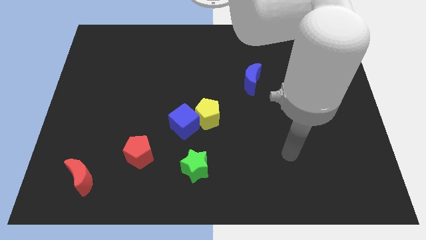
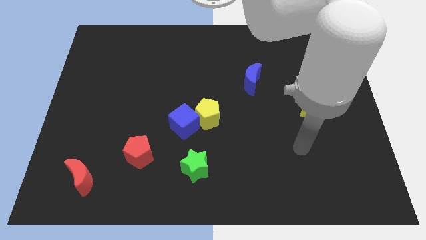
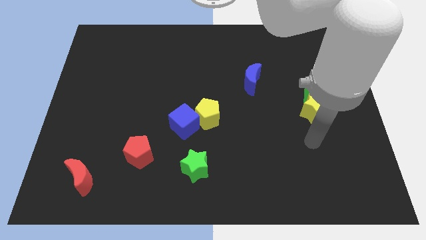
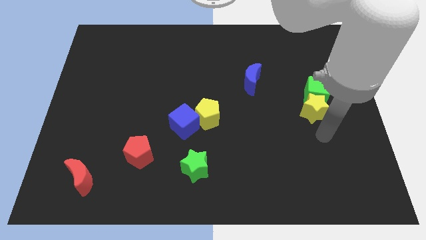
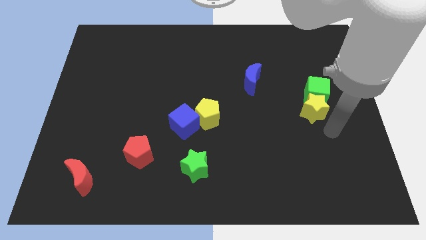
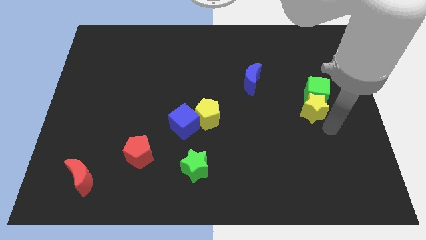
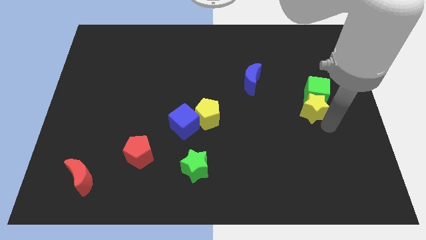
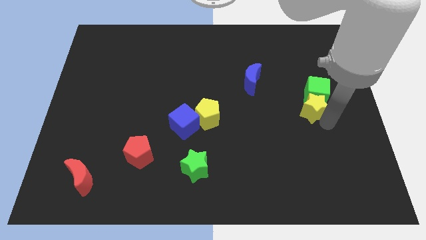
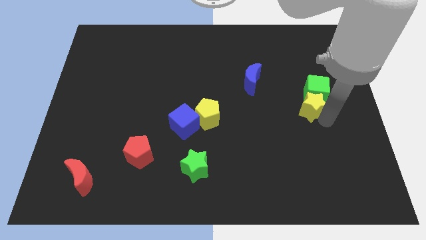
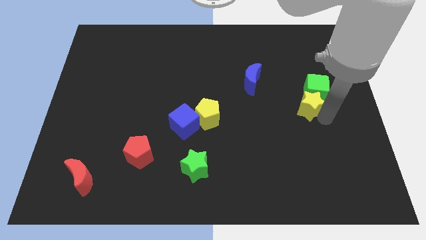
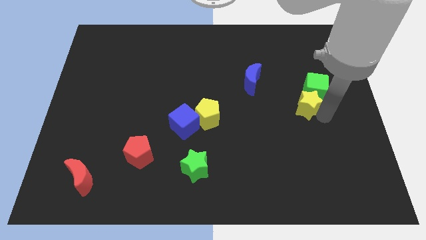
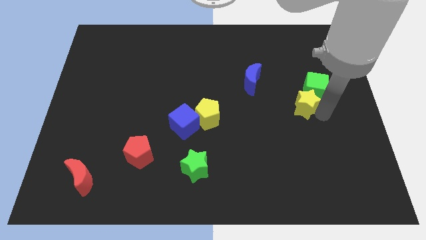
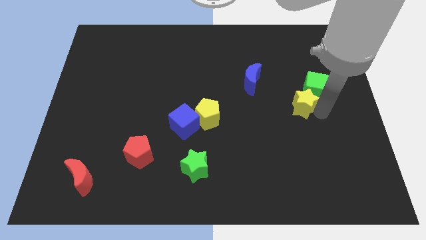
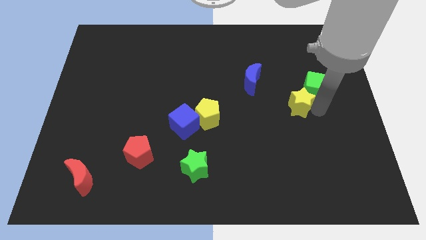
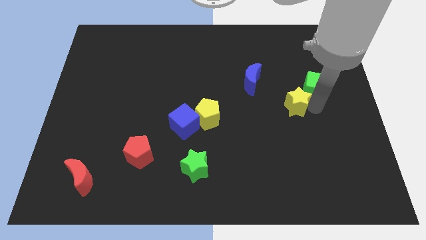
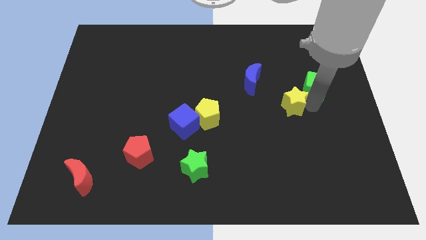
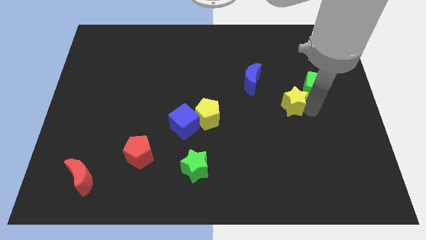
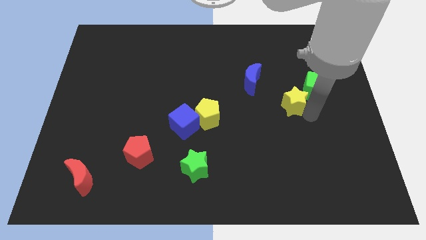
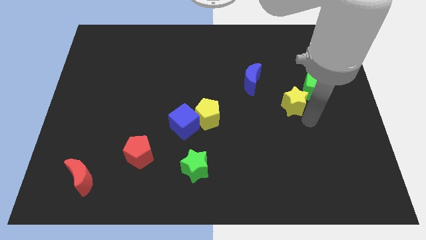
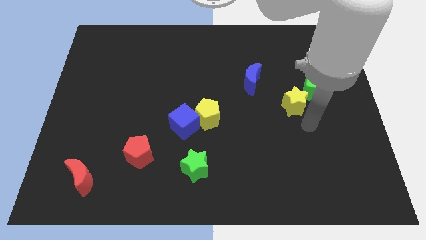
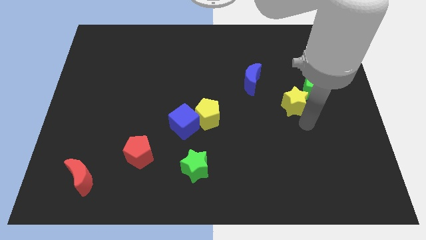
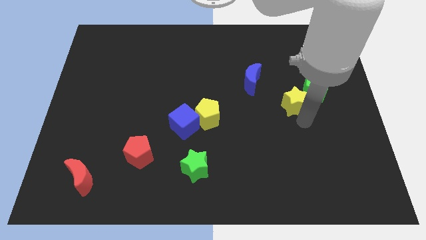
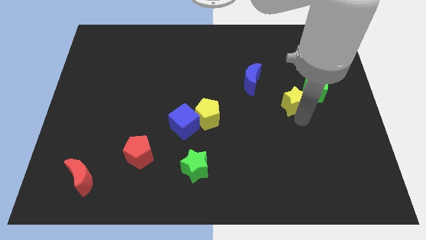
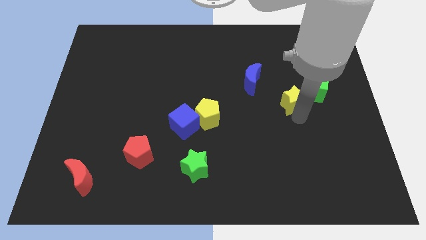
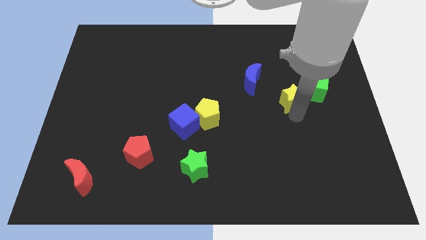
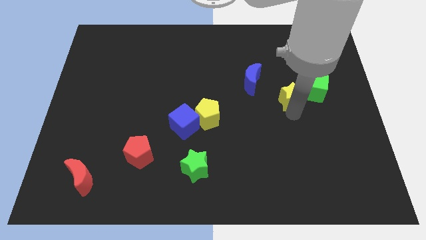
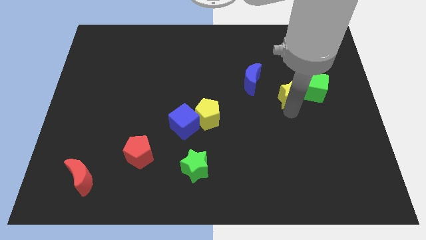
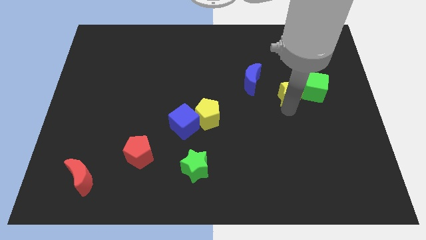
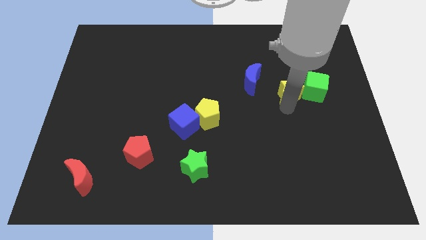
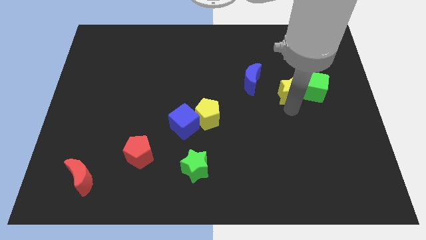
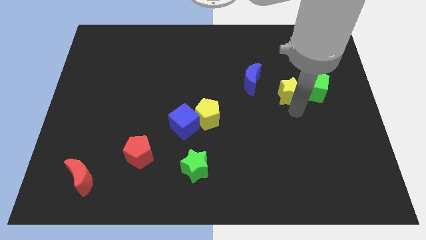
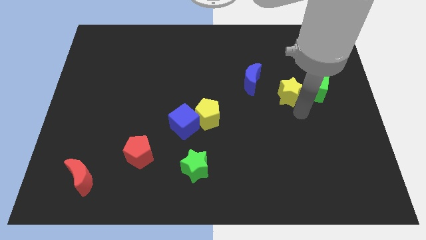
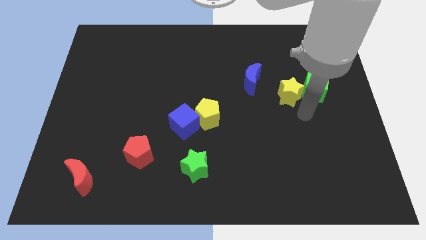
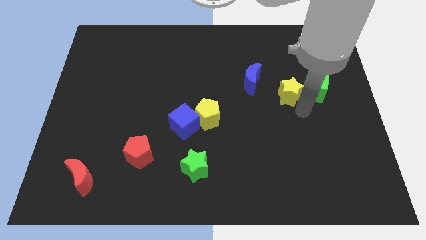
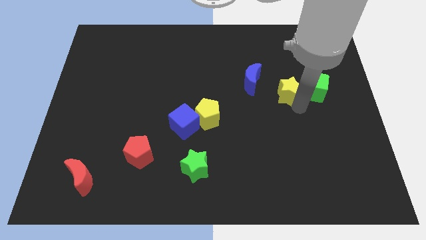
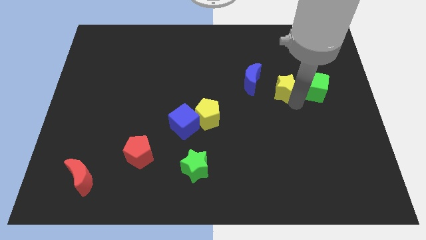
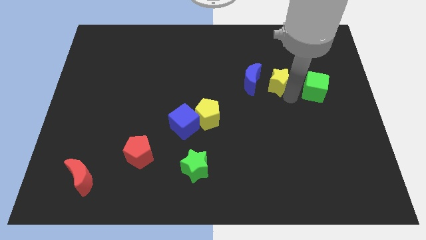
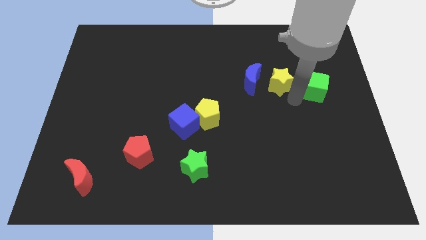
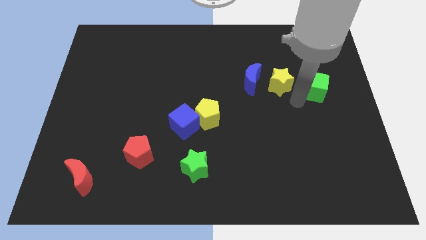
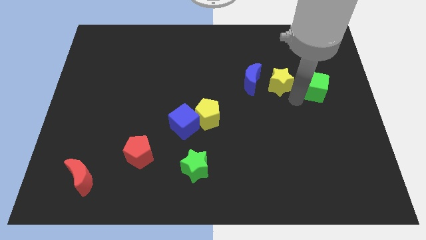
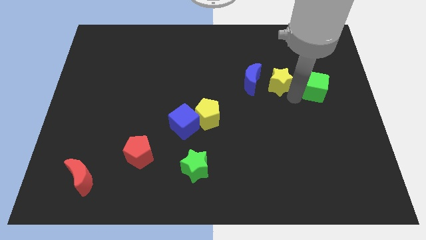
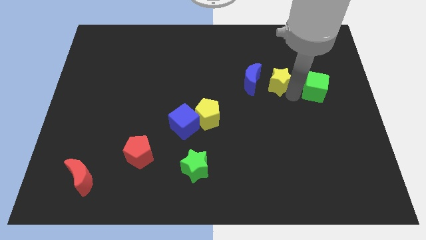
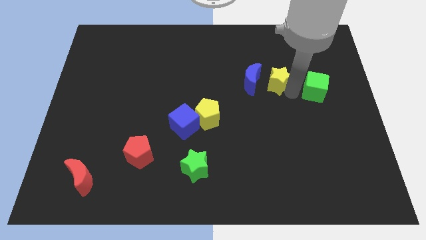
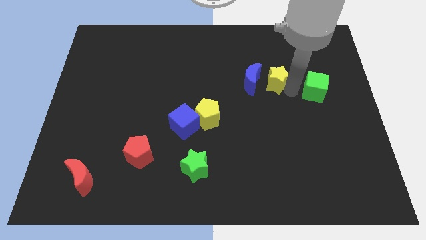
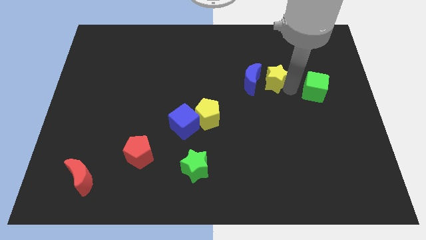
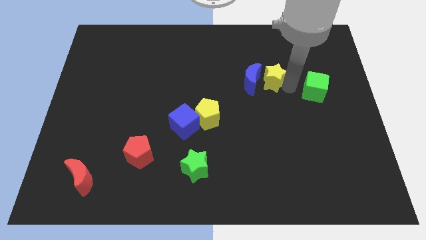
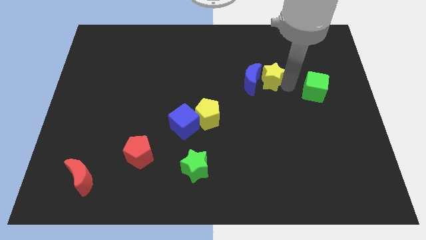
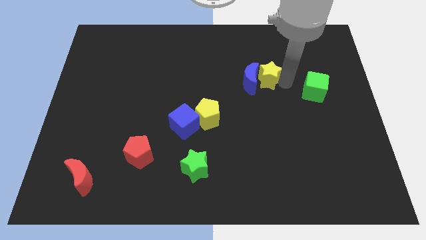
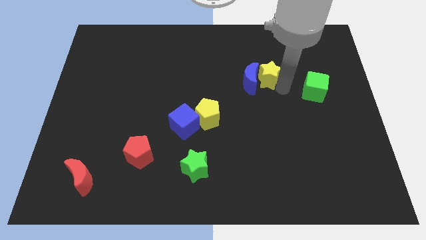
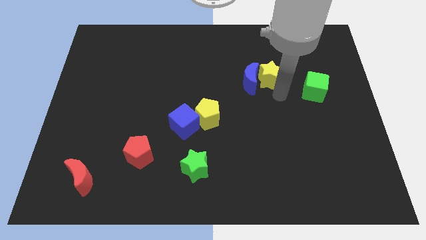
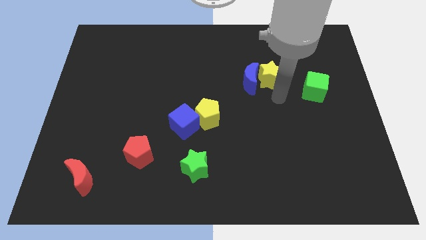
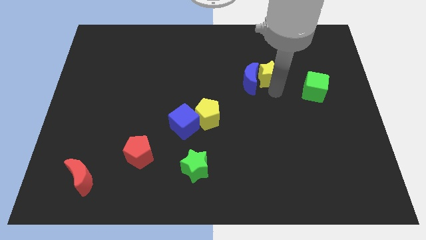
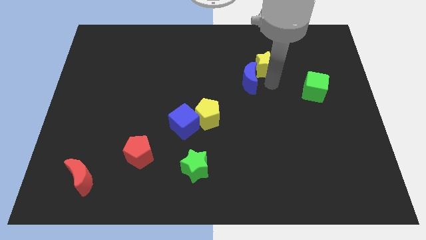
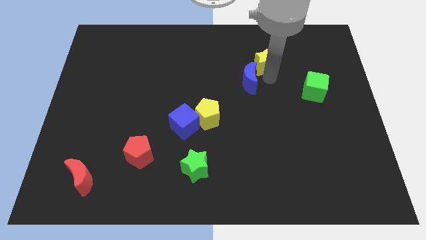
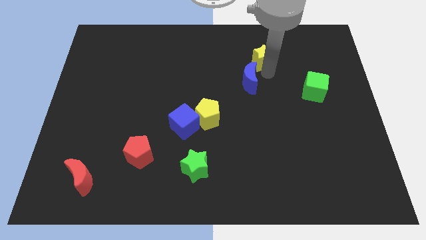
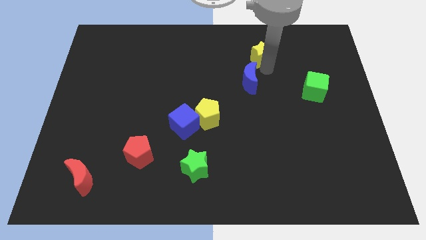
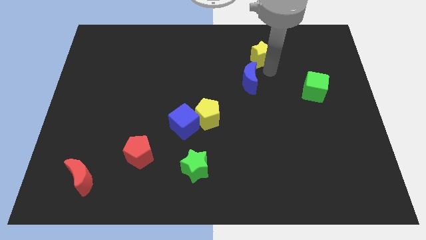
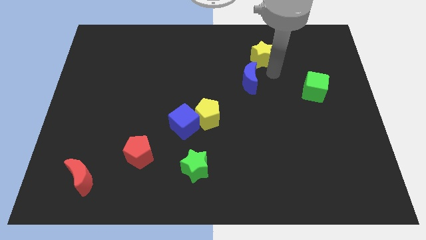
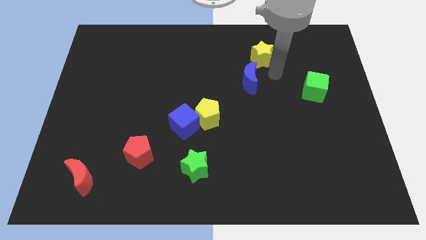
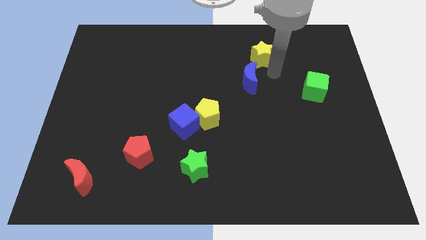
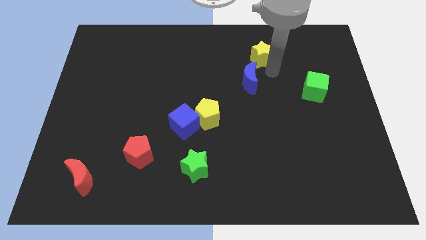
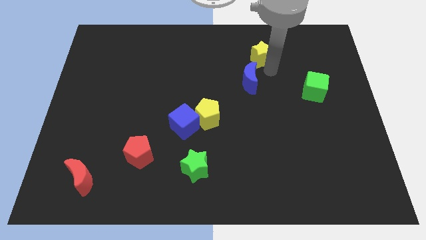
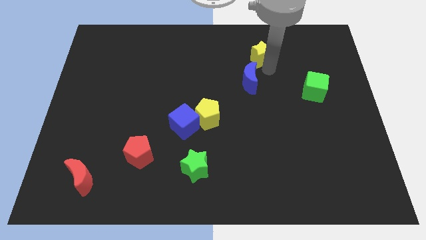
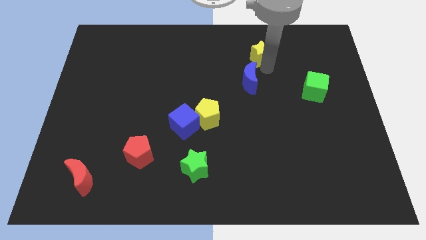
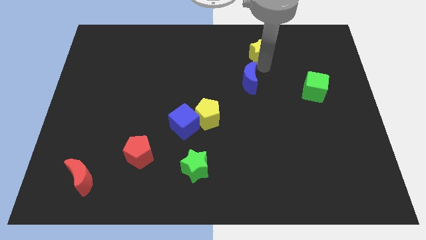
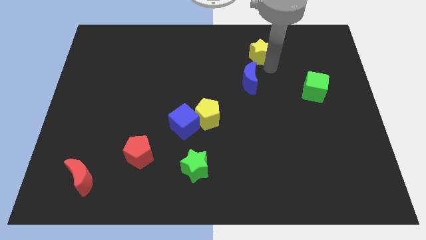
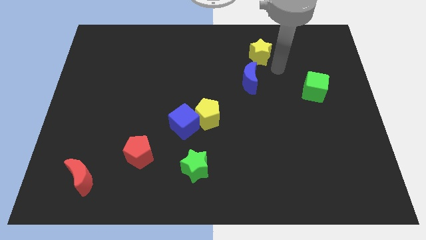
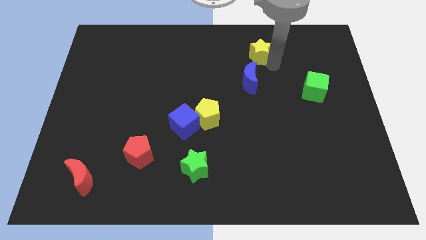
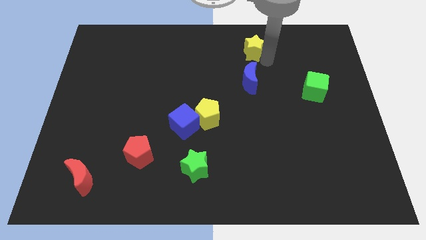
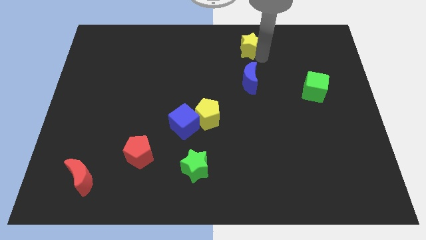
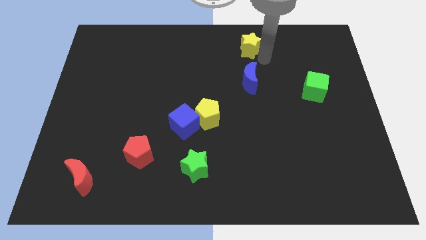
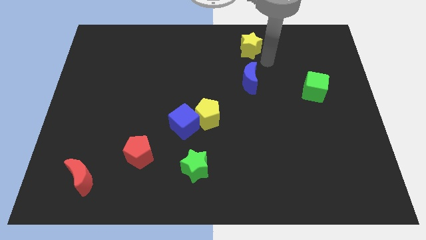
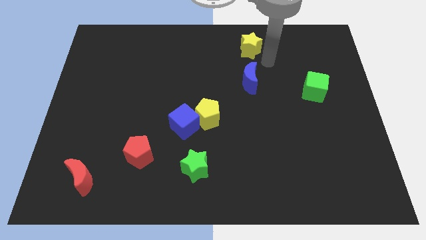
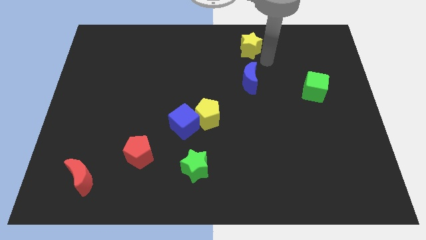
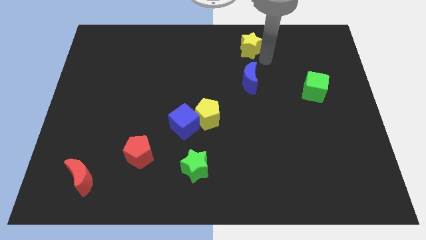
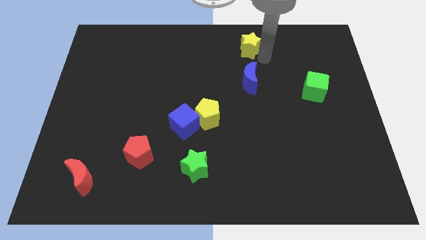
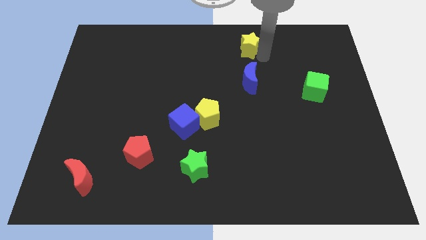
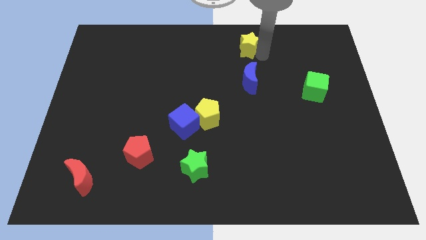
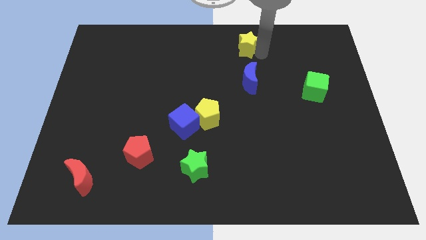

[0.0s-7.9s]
put the yellow star to the towards your base

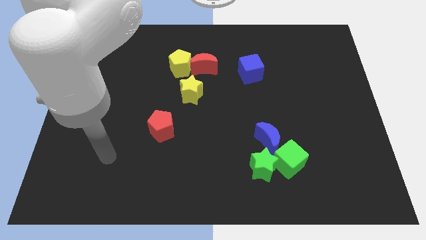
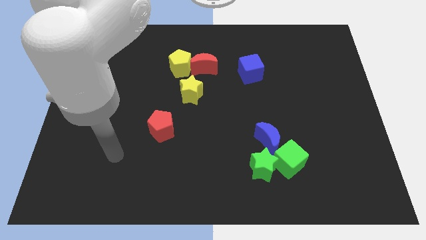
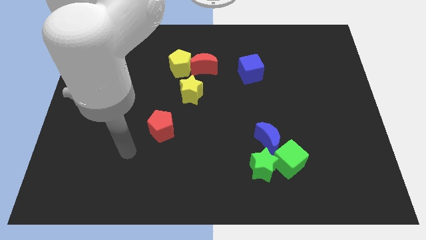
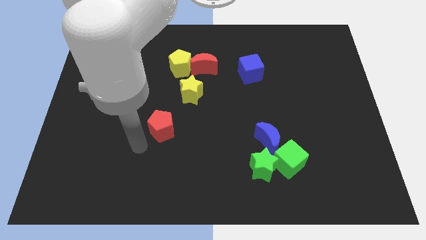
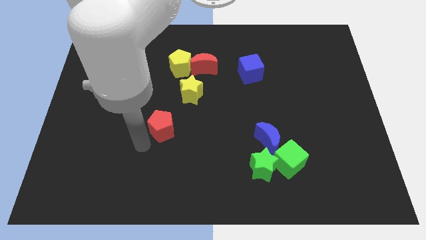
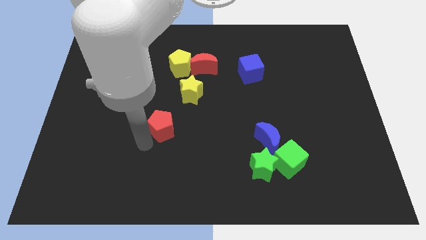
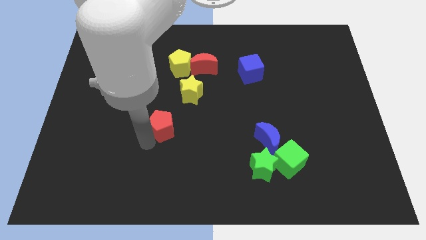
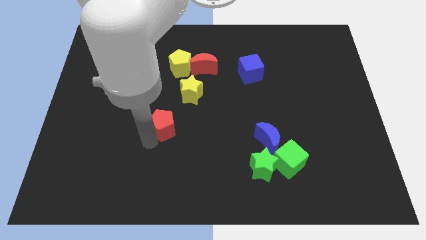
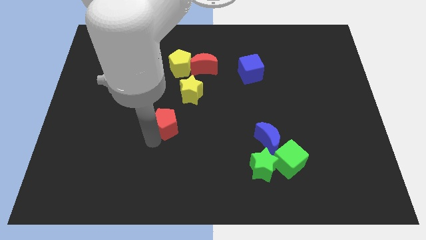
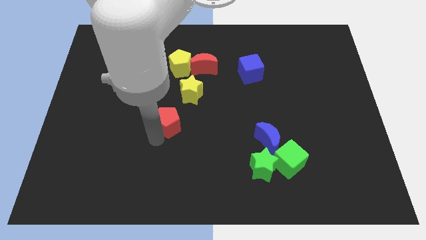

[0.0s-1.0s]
push the red pentagon to the middle of the board
